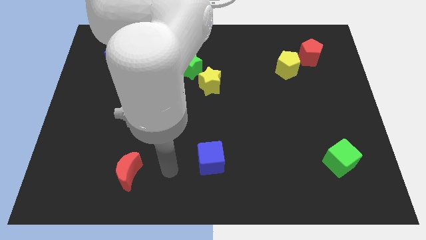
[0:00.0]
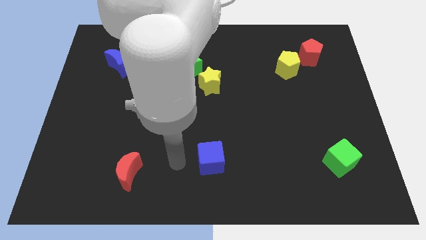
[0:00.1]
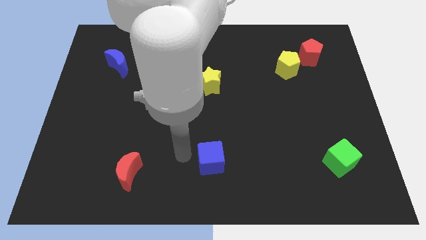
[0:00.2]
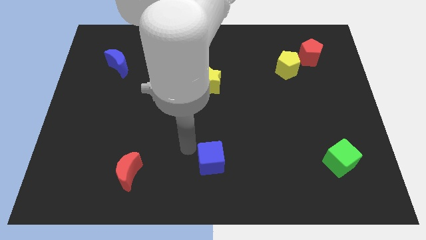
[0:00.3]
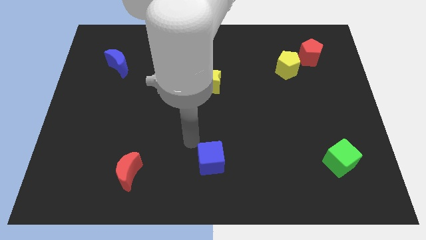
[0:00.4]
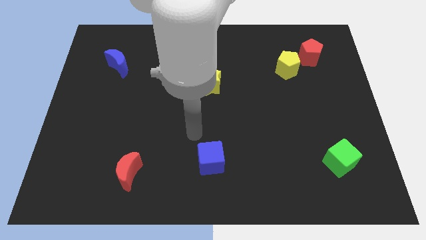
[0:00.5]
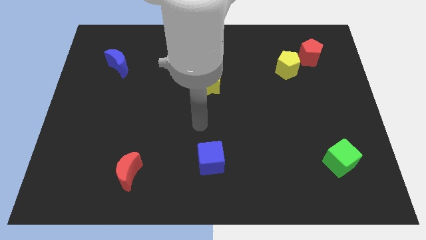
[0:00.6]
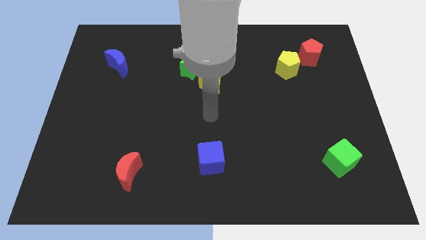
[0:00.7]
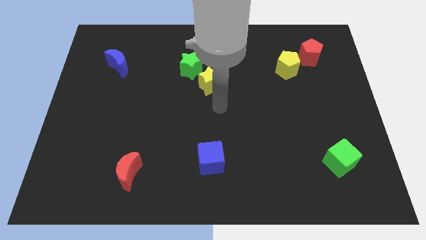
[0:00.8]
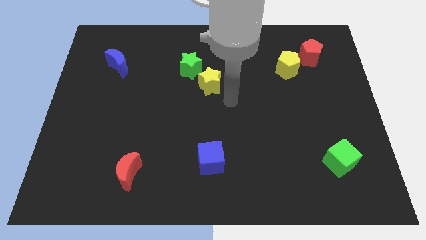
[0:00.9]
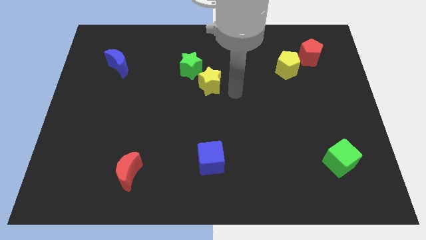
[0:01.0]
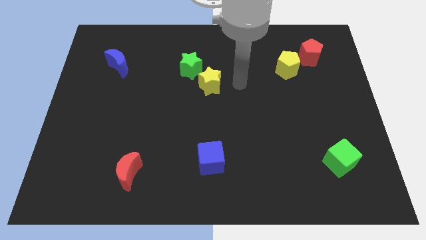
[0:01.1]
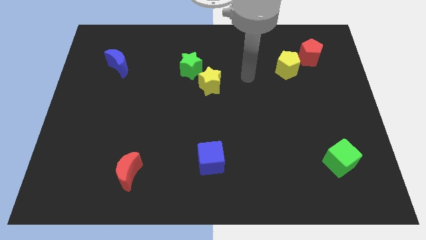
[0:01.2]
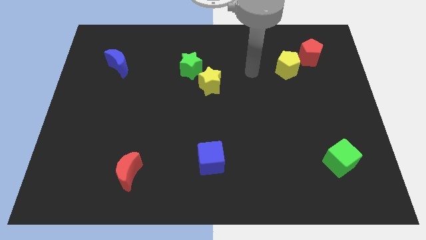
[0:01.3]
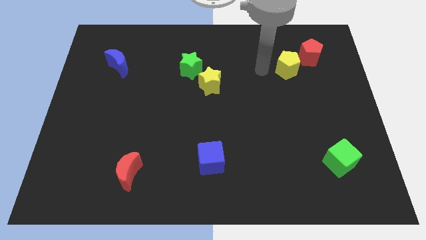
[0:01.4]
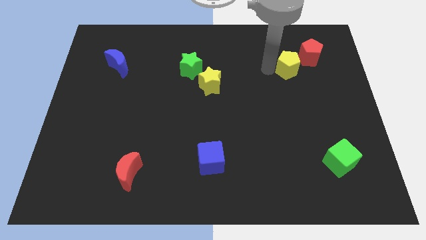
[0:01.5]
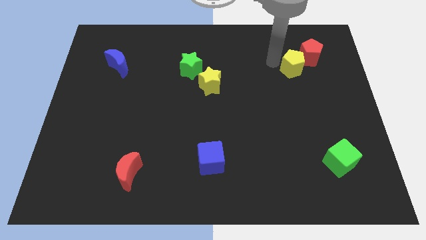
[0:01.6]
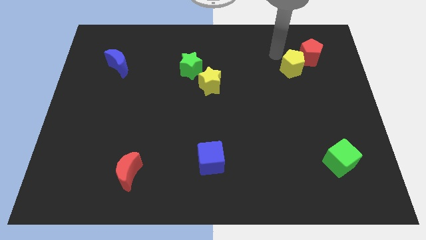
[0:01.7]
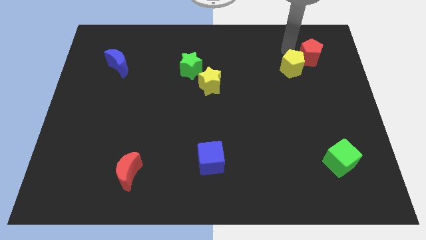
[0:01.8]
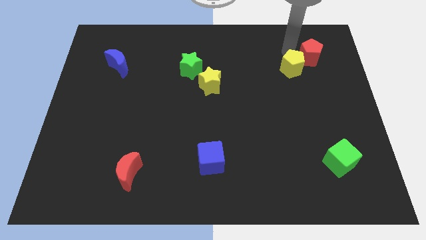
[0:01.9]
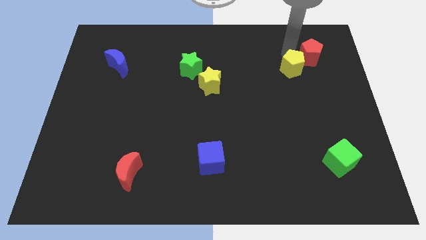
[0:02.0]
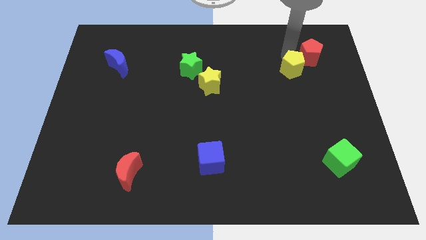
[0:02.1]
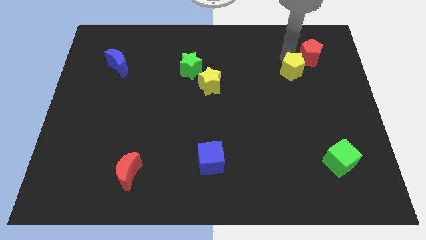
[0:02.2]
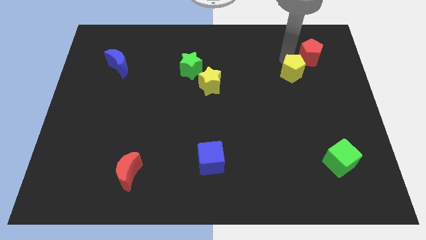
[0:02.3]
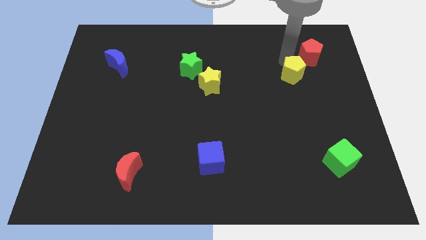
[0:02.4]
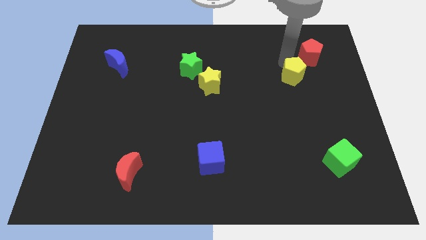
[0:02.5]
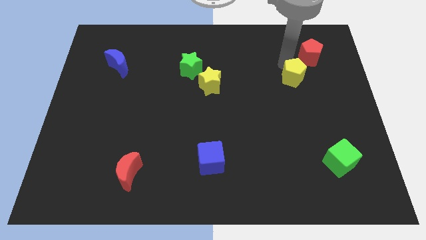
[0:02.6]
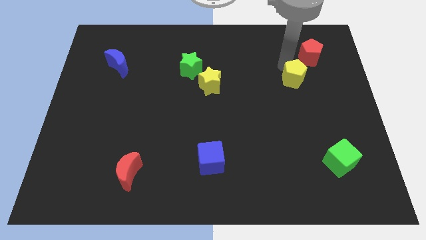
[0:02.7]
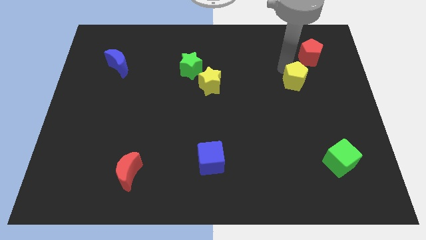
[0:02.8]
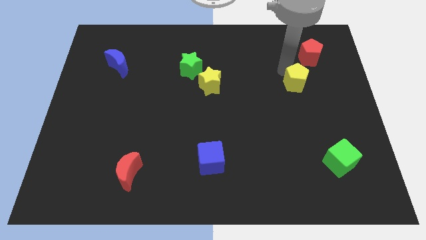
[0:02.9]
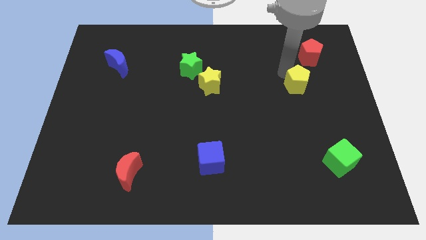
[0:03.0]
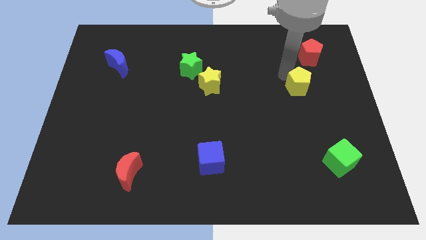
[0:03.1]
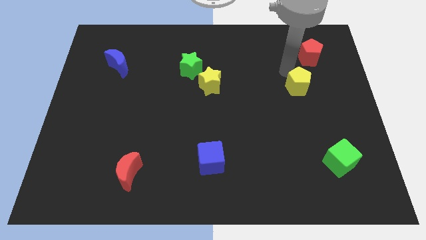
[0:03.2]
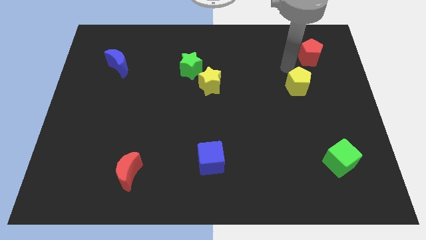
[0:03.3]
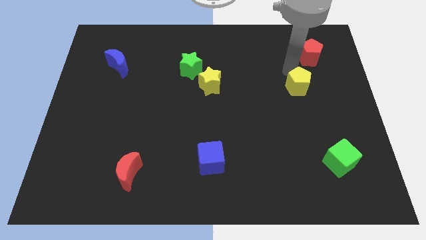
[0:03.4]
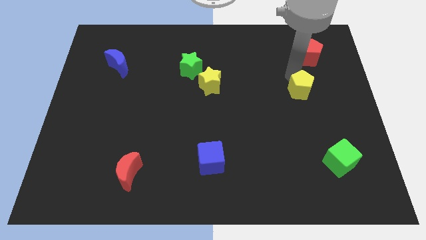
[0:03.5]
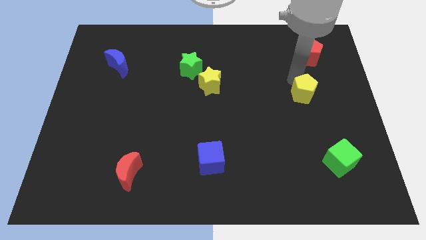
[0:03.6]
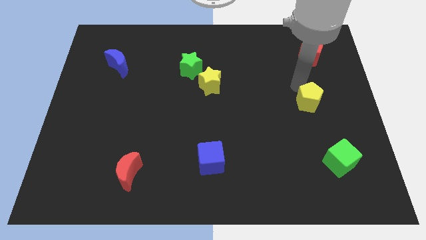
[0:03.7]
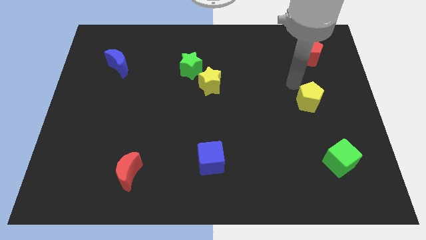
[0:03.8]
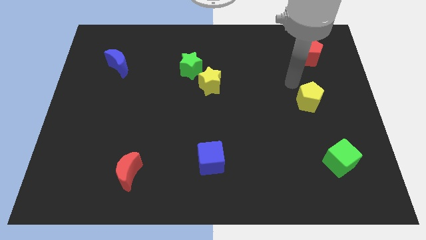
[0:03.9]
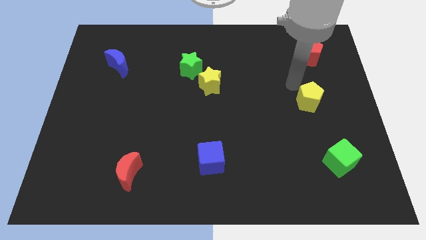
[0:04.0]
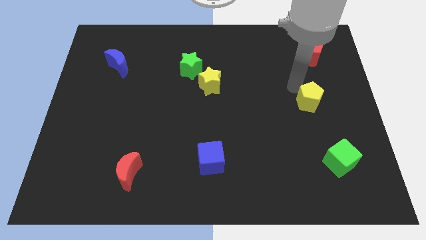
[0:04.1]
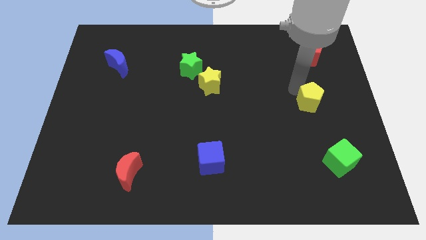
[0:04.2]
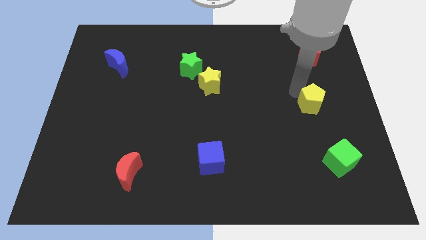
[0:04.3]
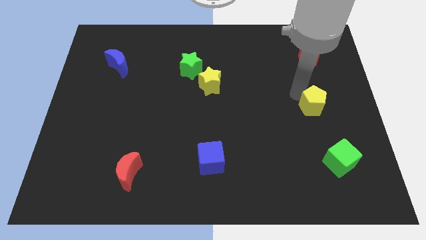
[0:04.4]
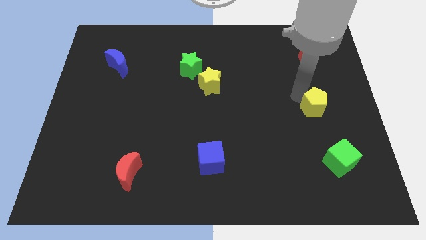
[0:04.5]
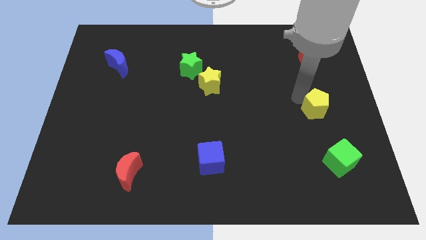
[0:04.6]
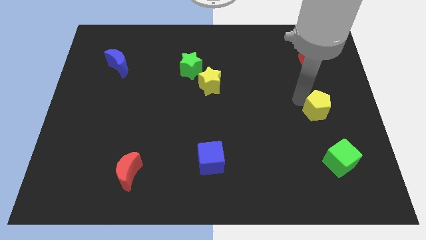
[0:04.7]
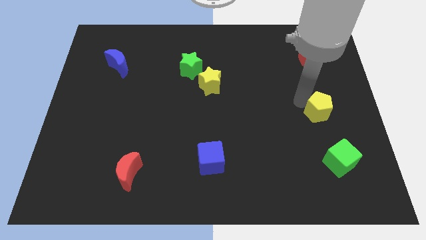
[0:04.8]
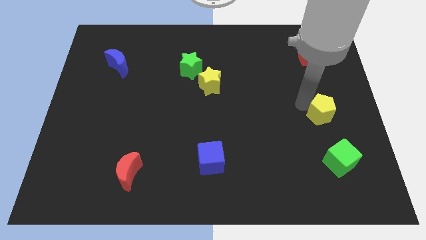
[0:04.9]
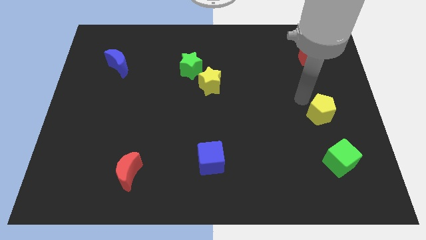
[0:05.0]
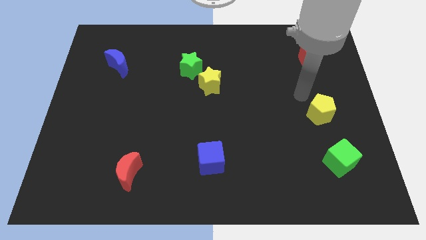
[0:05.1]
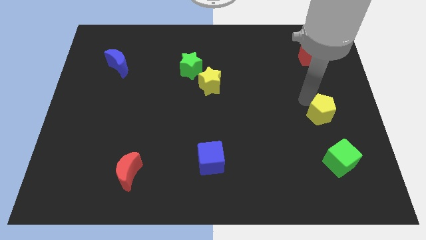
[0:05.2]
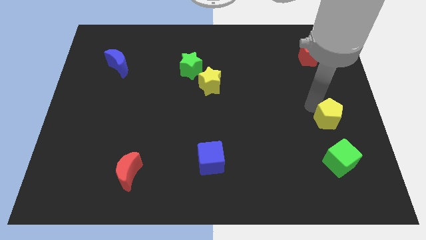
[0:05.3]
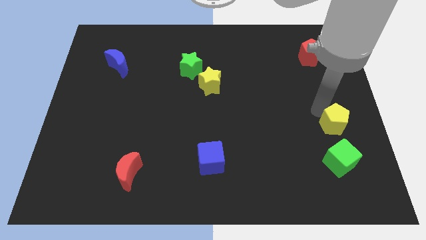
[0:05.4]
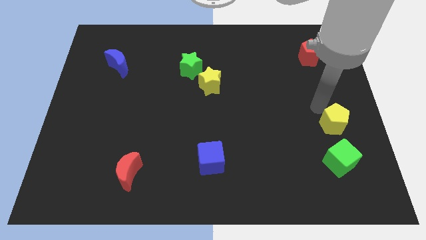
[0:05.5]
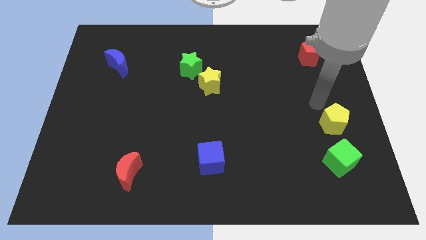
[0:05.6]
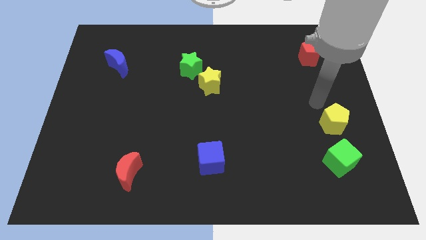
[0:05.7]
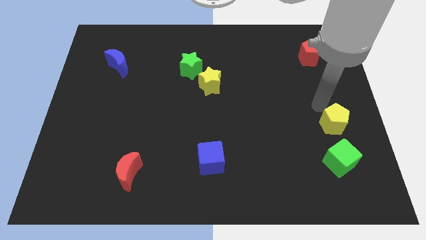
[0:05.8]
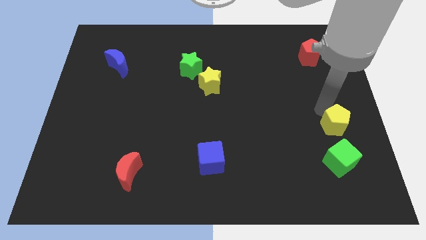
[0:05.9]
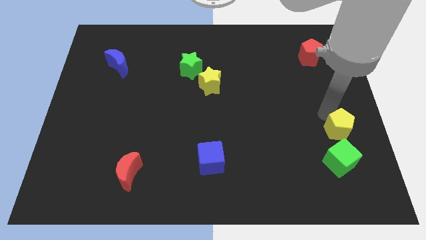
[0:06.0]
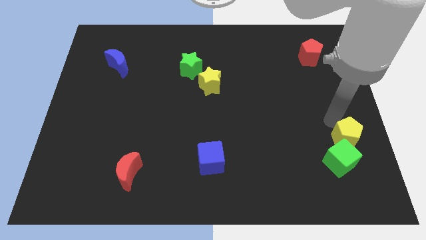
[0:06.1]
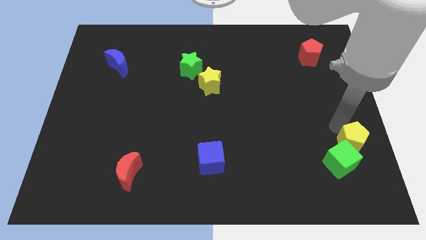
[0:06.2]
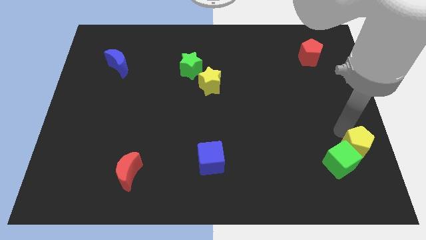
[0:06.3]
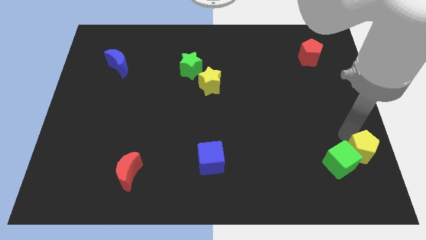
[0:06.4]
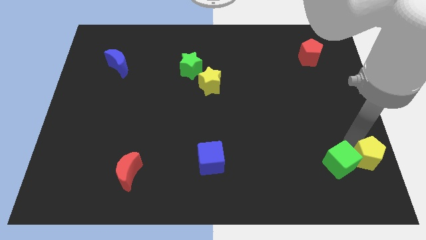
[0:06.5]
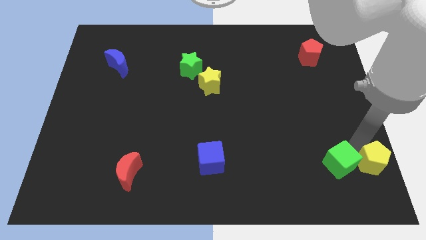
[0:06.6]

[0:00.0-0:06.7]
move the yellow pentagon to the bottom right corner
